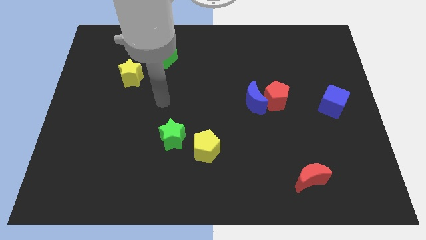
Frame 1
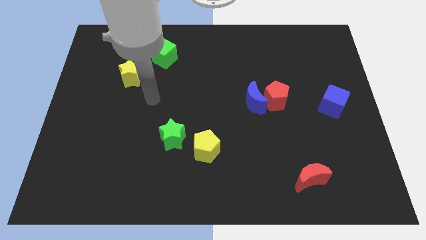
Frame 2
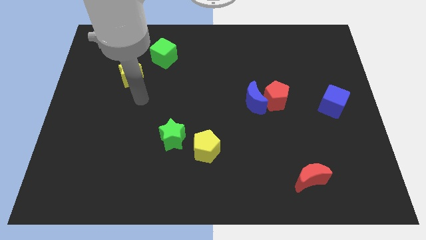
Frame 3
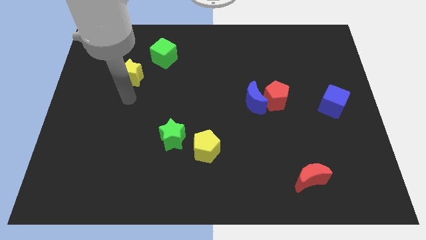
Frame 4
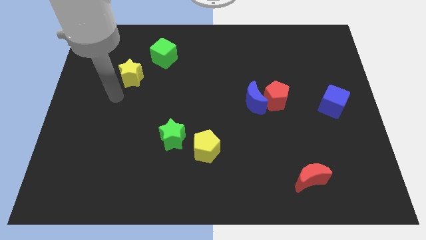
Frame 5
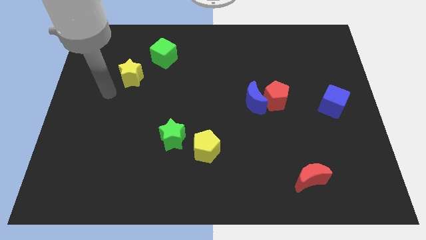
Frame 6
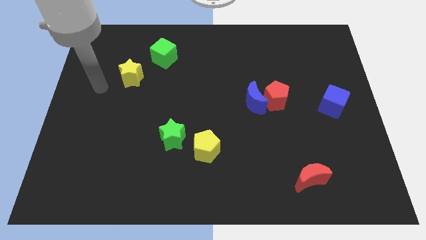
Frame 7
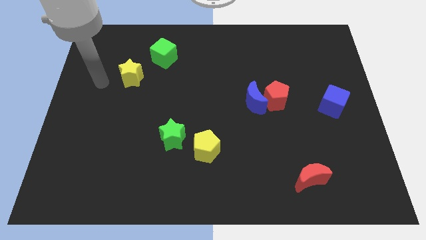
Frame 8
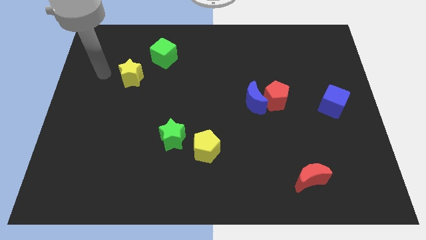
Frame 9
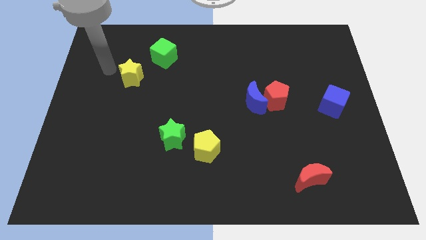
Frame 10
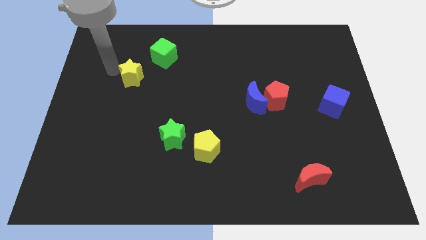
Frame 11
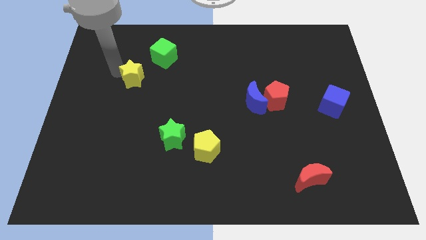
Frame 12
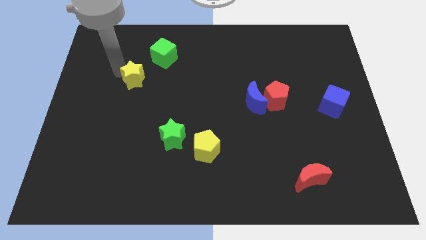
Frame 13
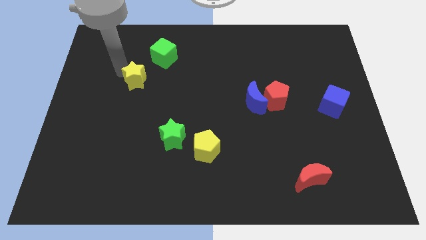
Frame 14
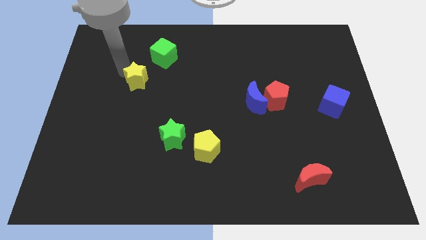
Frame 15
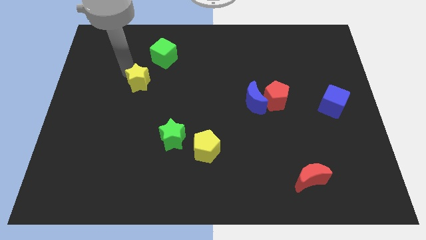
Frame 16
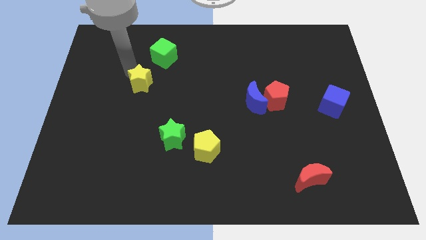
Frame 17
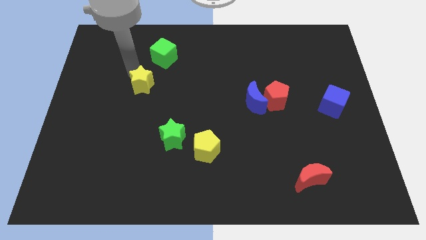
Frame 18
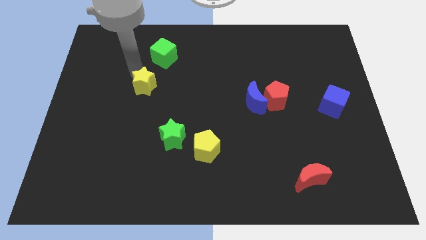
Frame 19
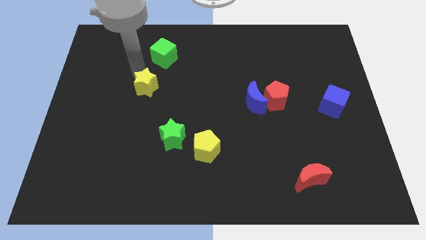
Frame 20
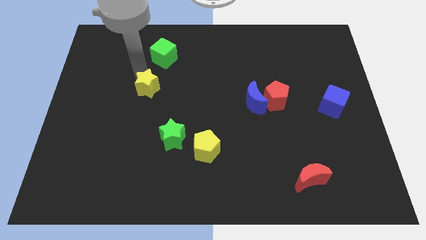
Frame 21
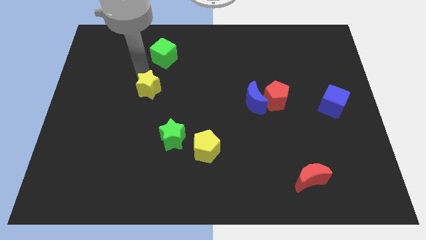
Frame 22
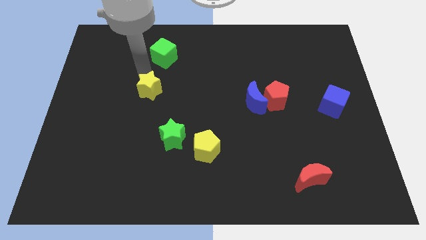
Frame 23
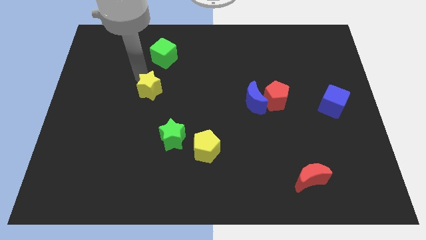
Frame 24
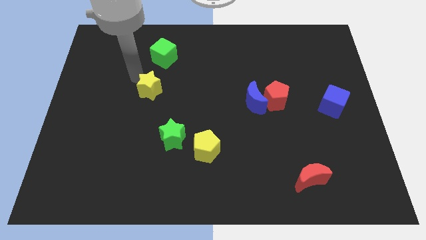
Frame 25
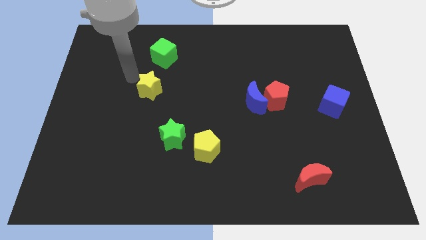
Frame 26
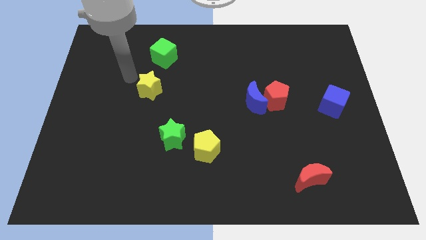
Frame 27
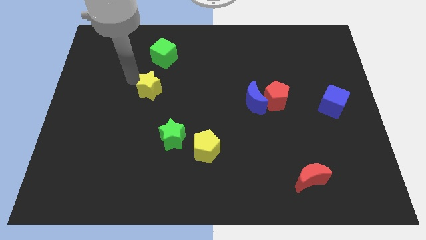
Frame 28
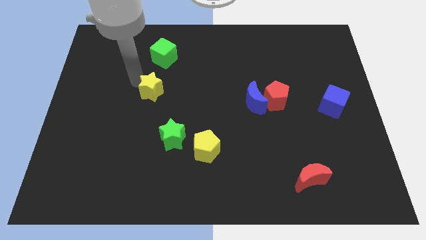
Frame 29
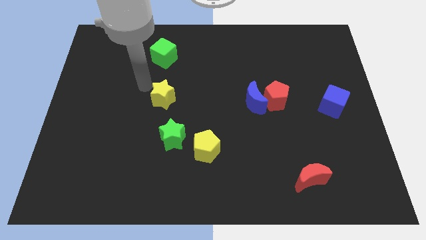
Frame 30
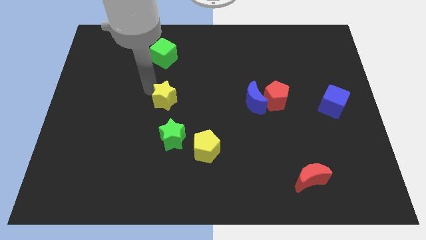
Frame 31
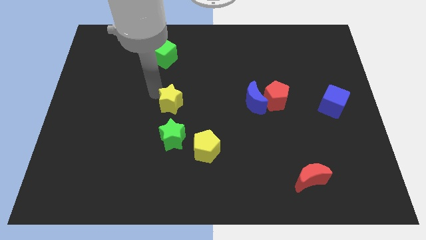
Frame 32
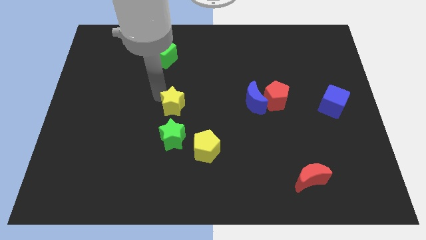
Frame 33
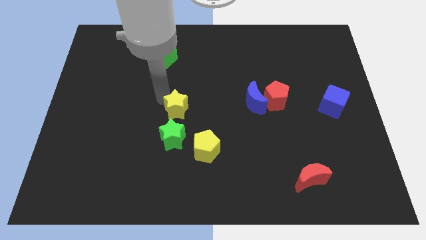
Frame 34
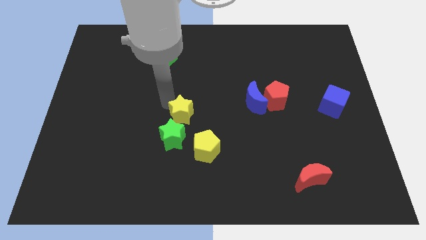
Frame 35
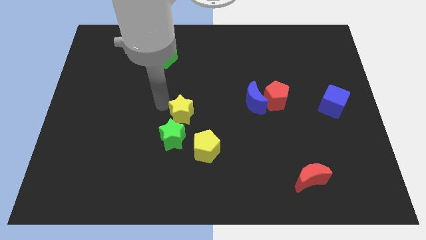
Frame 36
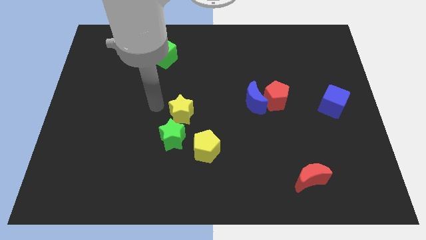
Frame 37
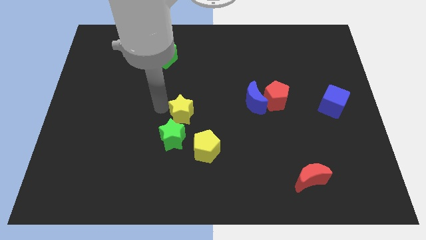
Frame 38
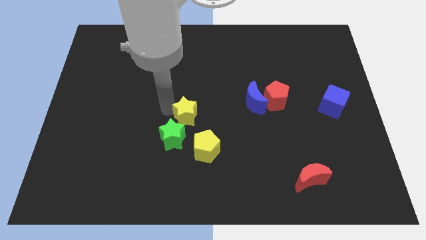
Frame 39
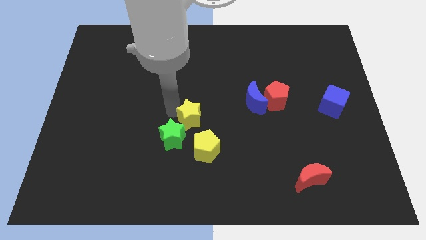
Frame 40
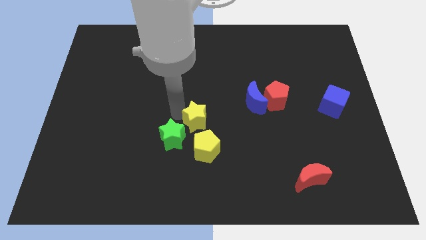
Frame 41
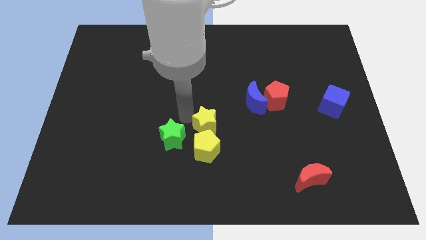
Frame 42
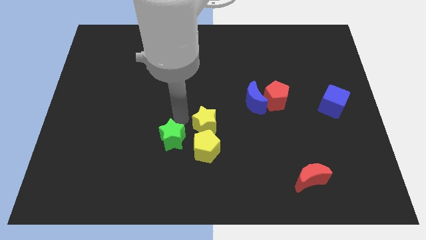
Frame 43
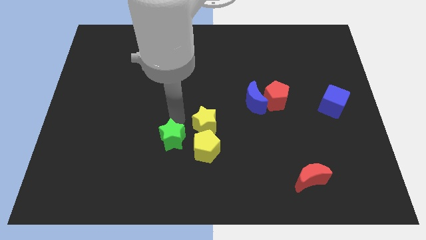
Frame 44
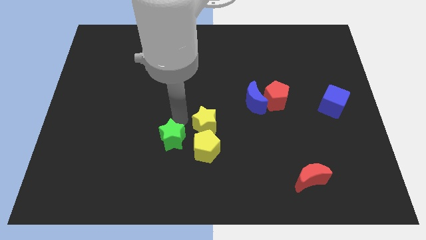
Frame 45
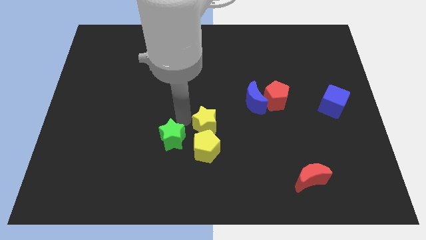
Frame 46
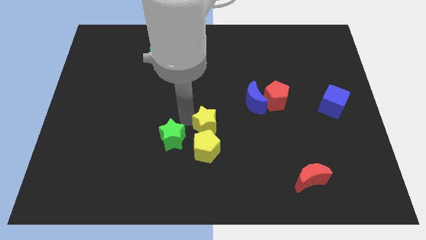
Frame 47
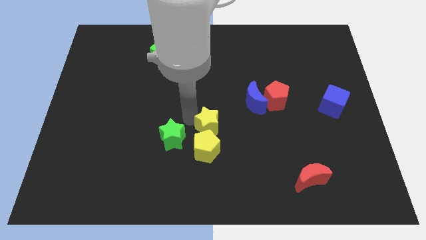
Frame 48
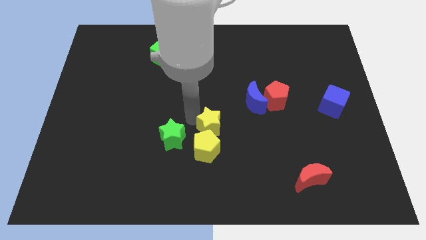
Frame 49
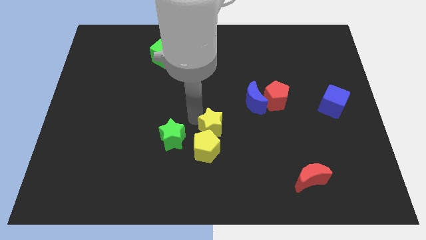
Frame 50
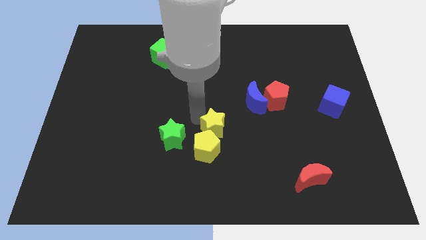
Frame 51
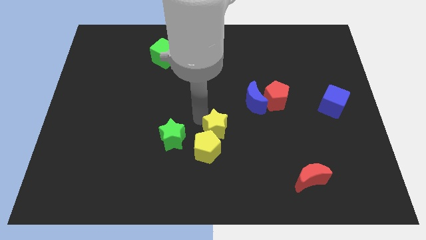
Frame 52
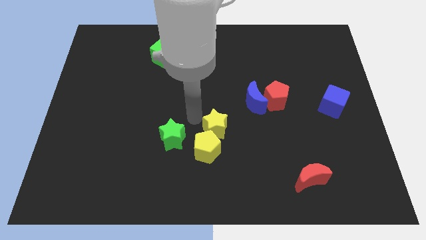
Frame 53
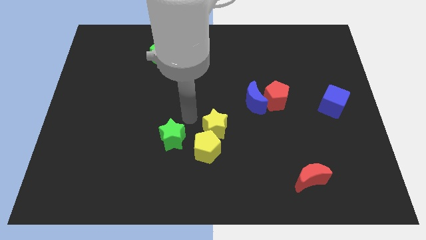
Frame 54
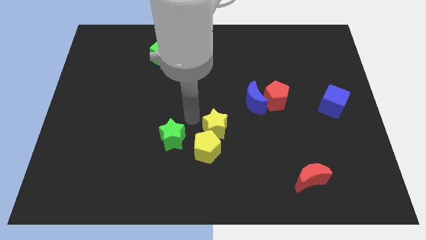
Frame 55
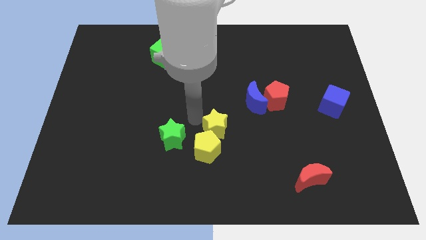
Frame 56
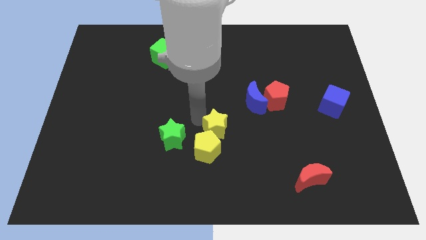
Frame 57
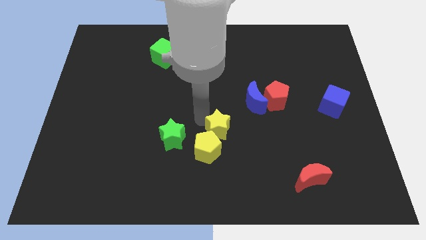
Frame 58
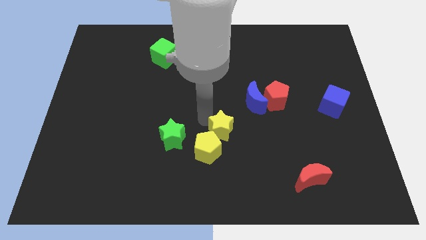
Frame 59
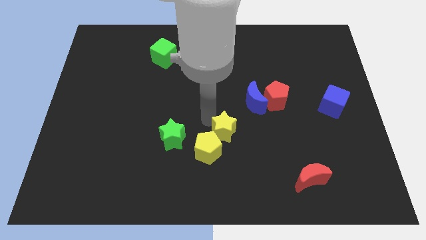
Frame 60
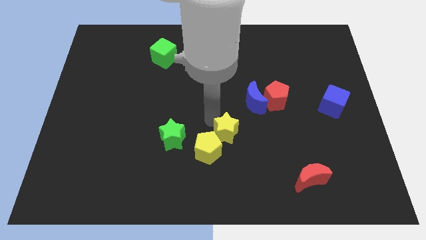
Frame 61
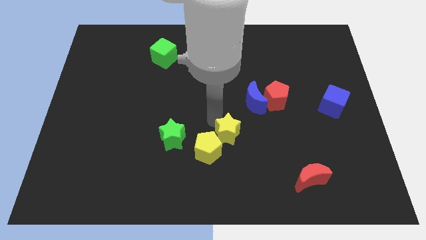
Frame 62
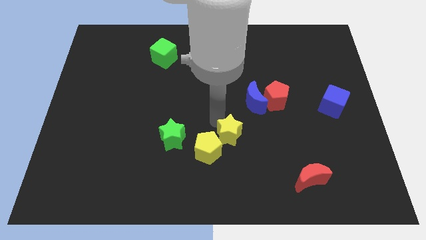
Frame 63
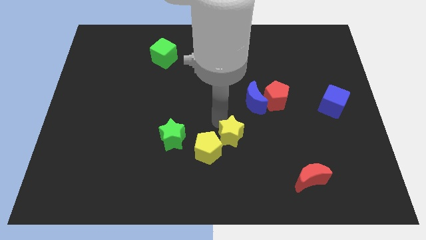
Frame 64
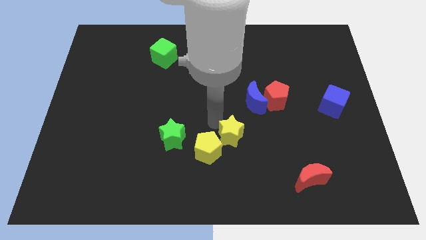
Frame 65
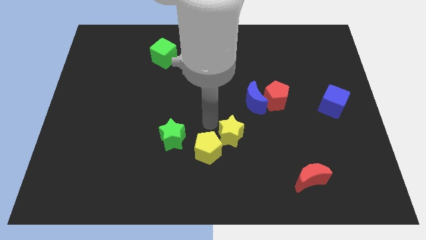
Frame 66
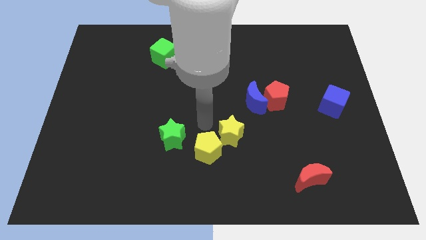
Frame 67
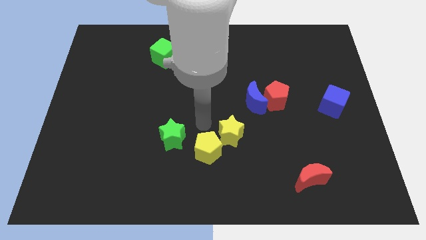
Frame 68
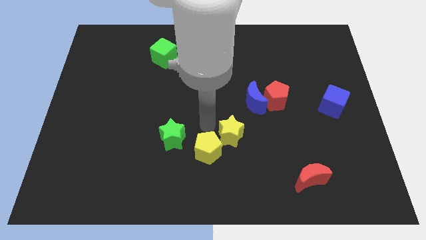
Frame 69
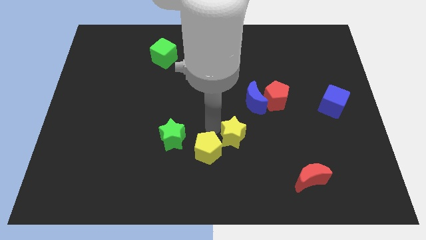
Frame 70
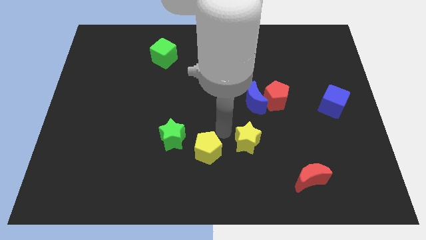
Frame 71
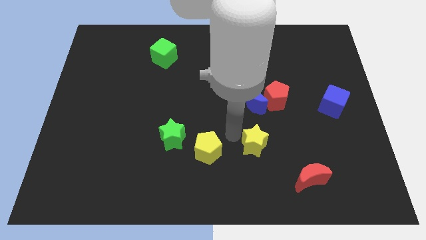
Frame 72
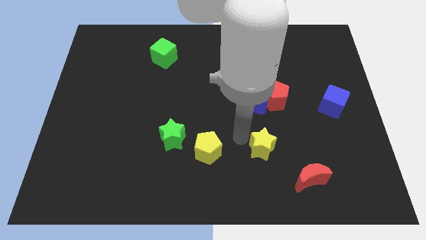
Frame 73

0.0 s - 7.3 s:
push the yellow star diagonally up and to the left of the red moon

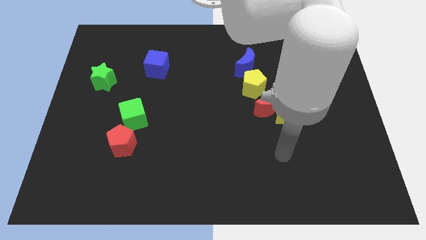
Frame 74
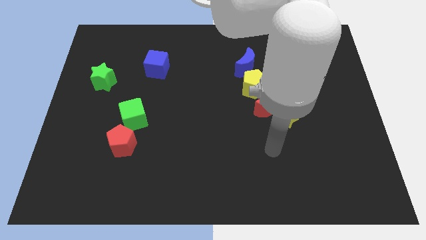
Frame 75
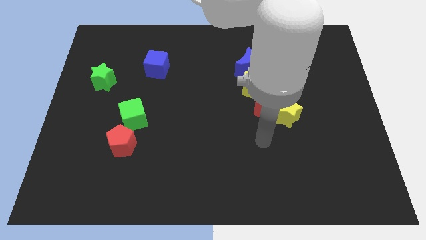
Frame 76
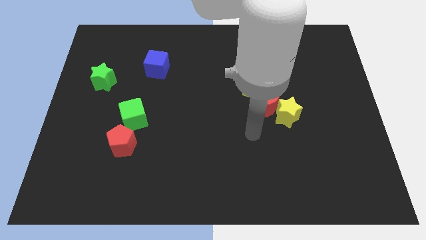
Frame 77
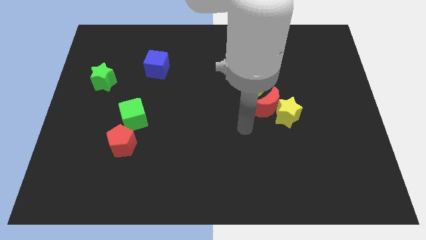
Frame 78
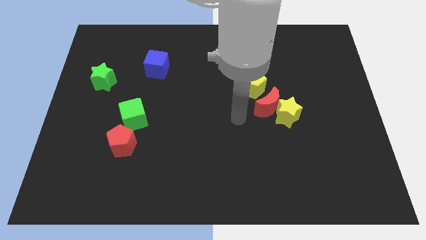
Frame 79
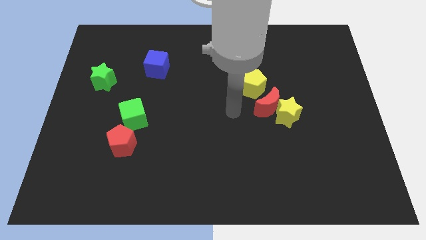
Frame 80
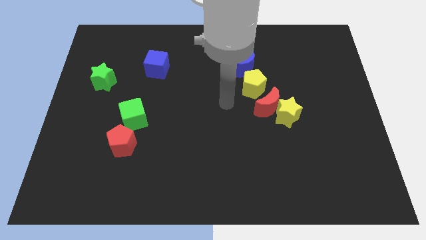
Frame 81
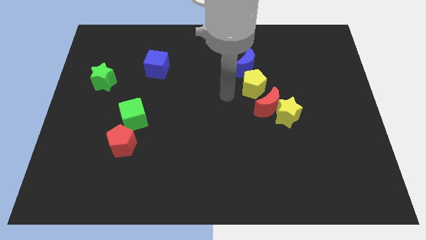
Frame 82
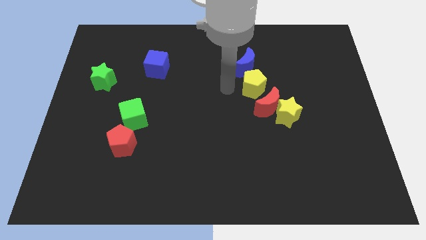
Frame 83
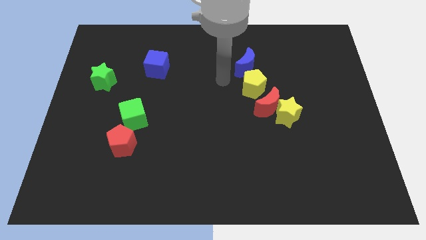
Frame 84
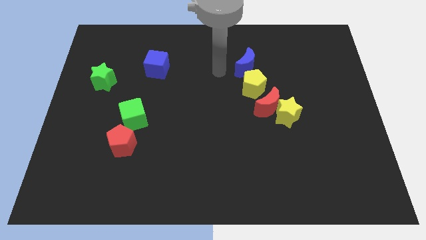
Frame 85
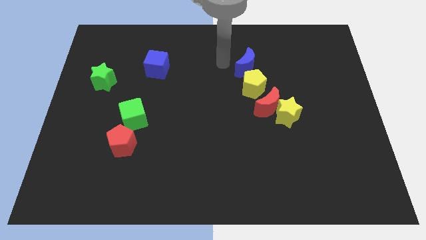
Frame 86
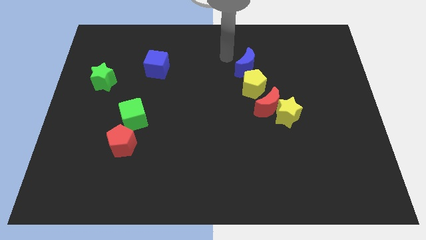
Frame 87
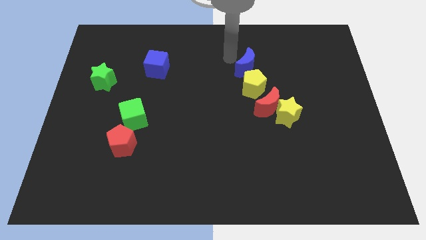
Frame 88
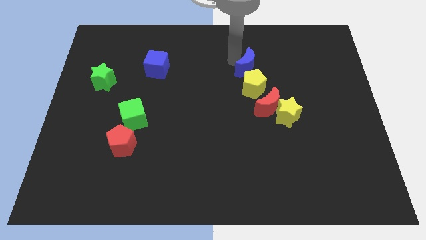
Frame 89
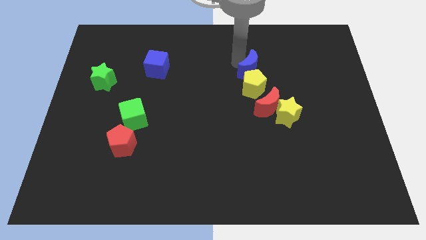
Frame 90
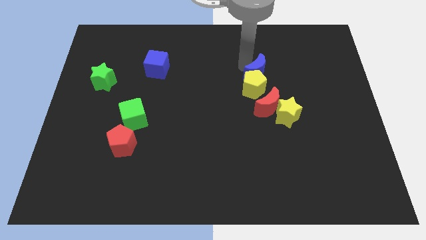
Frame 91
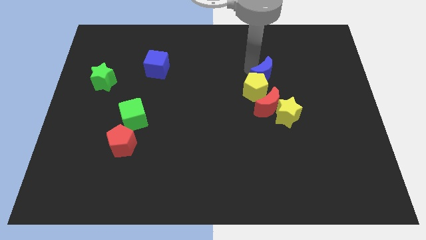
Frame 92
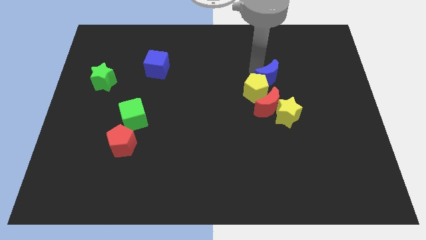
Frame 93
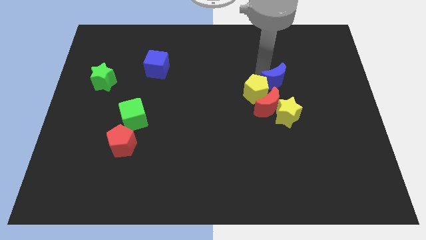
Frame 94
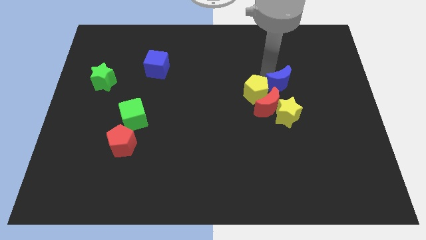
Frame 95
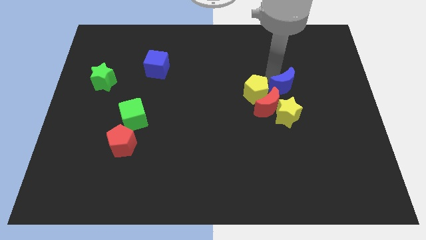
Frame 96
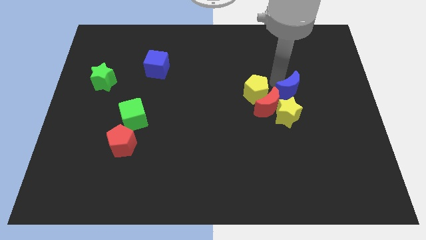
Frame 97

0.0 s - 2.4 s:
put the blue moon to the top right side of the yellow star
